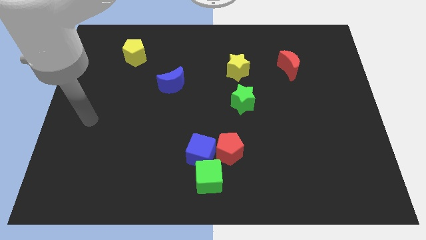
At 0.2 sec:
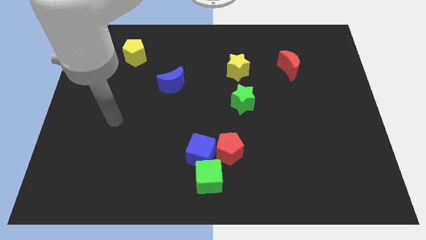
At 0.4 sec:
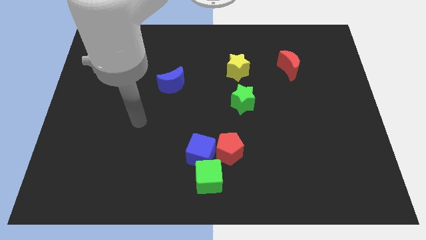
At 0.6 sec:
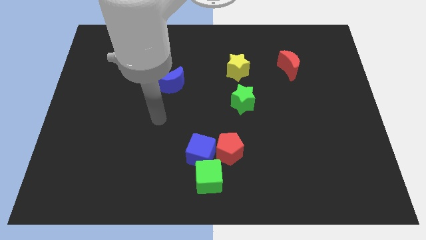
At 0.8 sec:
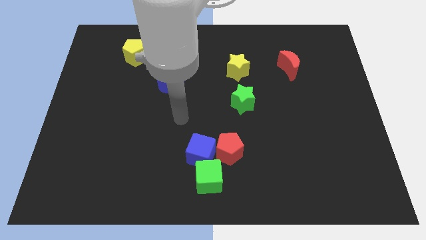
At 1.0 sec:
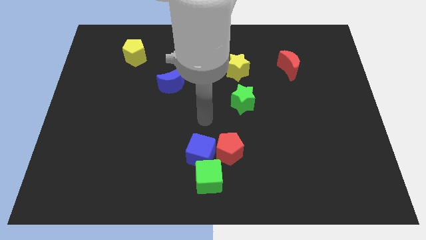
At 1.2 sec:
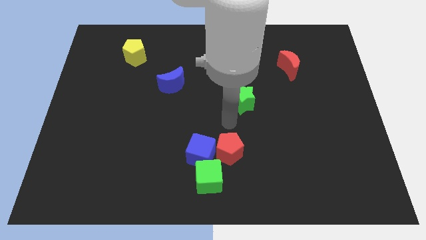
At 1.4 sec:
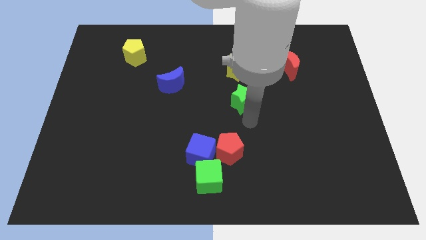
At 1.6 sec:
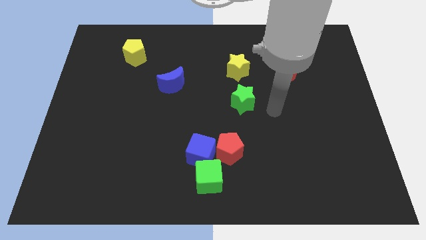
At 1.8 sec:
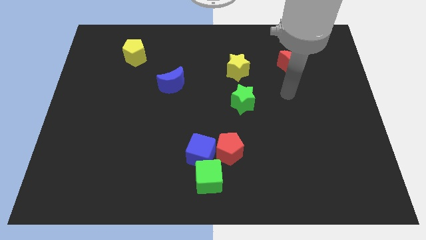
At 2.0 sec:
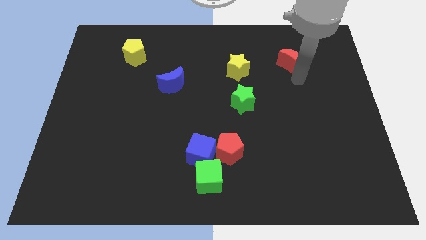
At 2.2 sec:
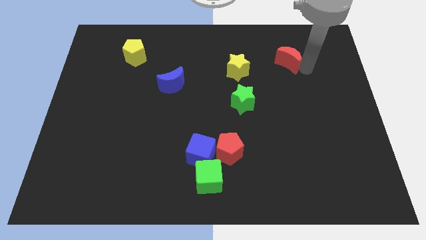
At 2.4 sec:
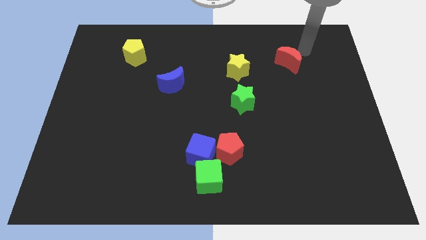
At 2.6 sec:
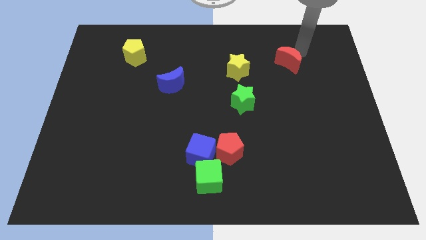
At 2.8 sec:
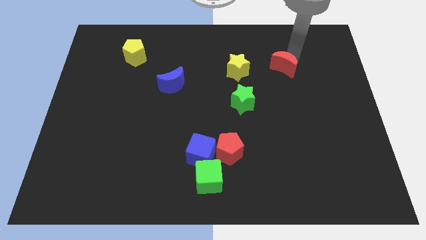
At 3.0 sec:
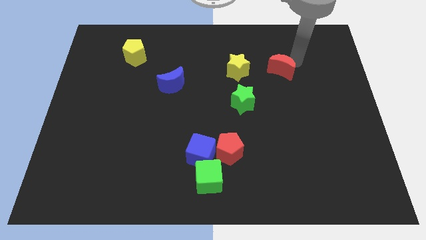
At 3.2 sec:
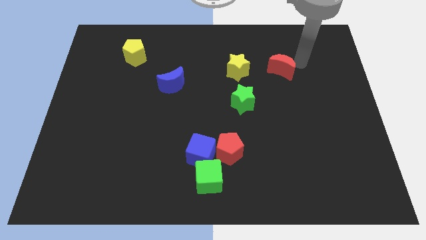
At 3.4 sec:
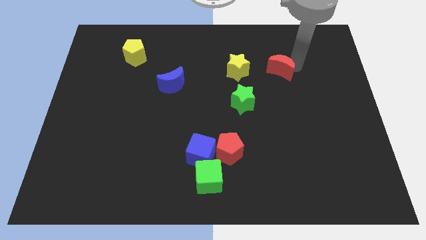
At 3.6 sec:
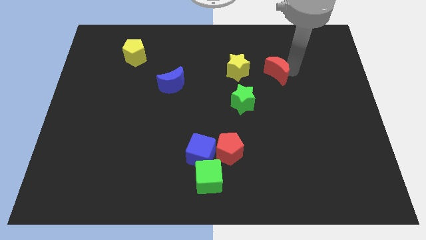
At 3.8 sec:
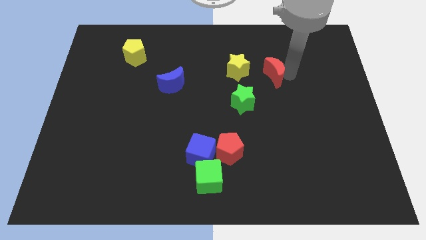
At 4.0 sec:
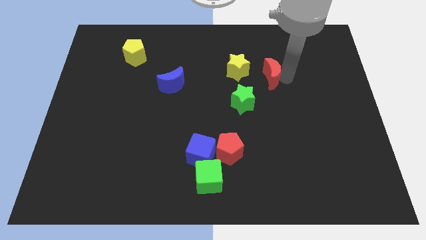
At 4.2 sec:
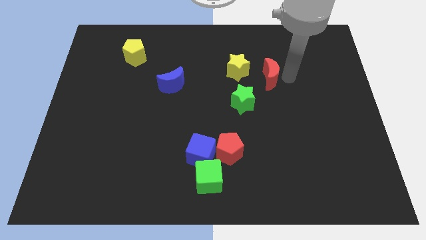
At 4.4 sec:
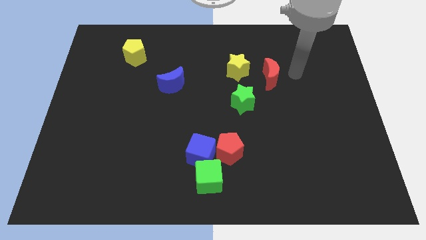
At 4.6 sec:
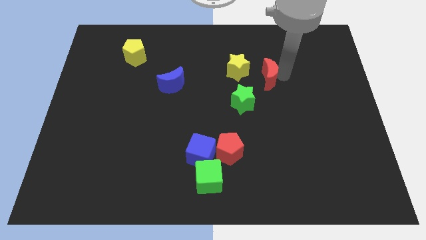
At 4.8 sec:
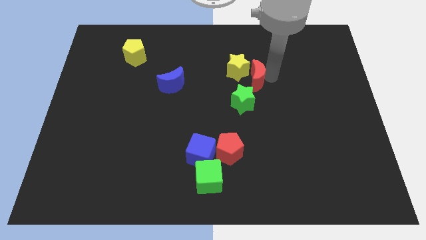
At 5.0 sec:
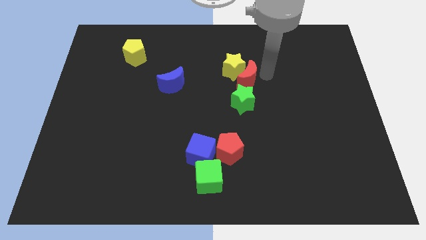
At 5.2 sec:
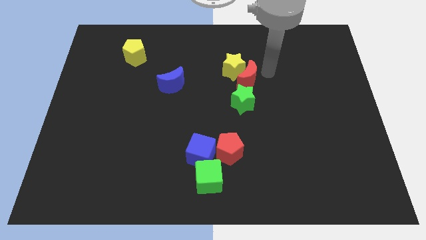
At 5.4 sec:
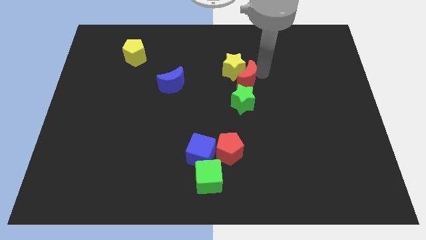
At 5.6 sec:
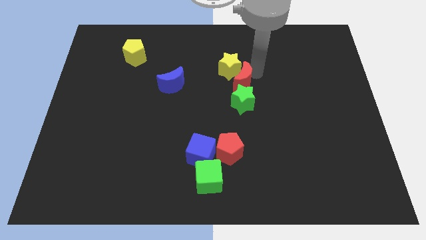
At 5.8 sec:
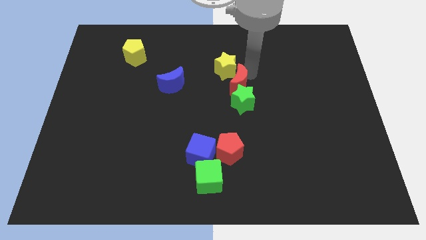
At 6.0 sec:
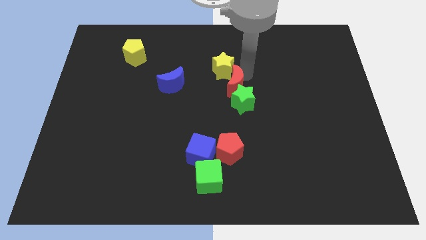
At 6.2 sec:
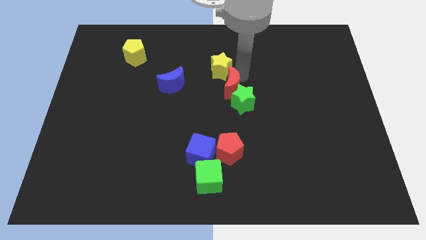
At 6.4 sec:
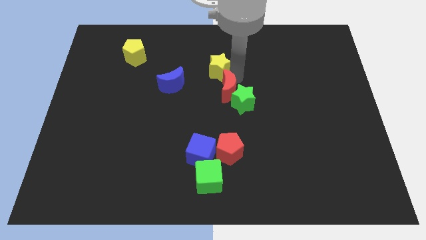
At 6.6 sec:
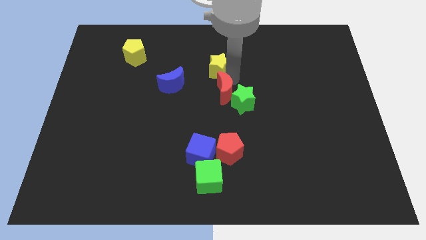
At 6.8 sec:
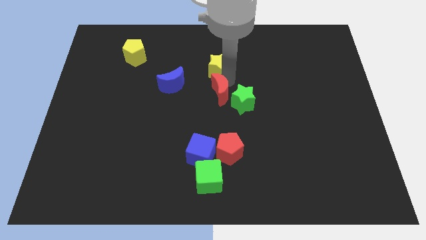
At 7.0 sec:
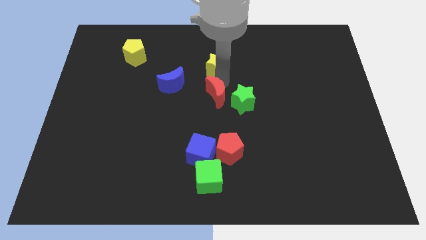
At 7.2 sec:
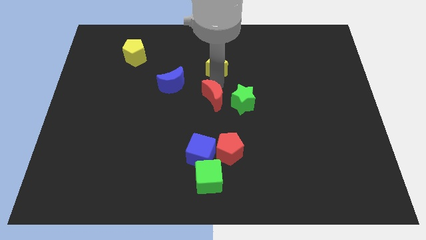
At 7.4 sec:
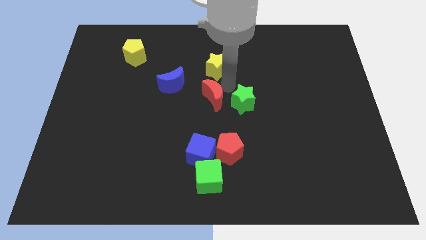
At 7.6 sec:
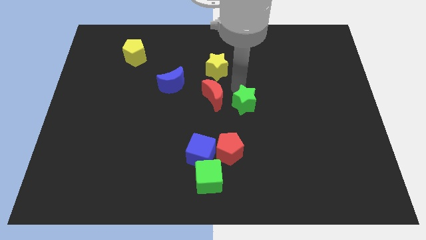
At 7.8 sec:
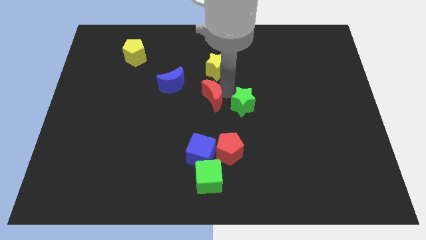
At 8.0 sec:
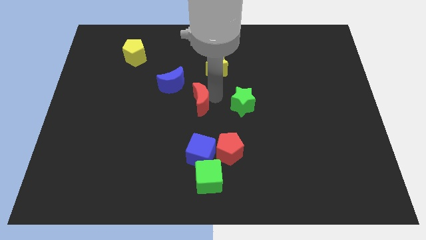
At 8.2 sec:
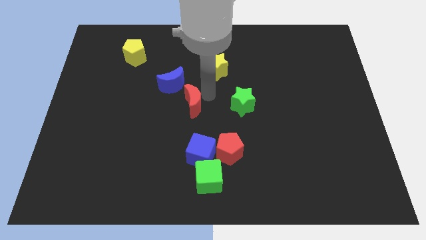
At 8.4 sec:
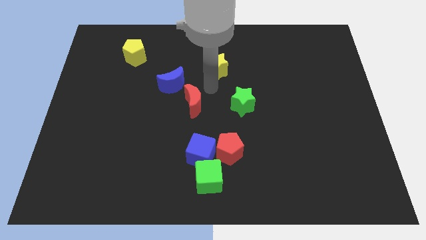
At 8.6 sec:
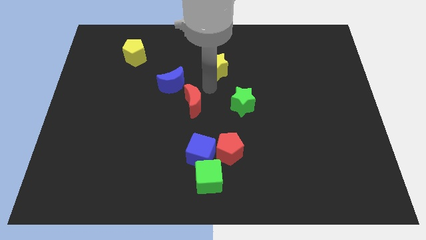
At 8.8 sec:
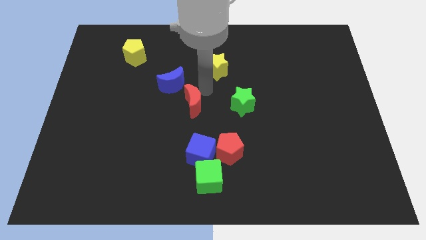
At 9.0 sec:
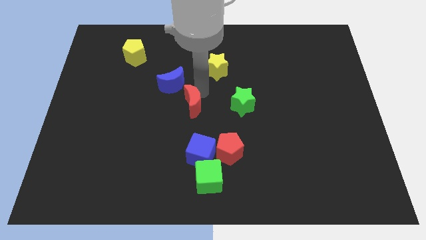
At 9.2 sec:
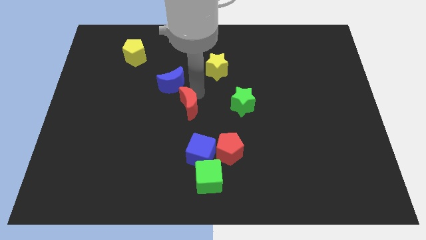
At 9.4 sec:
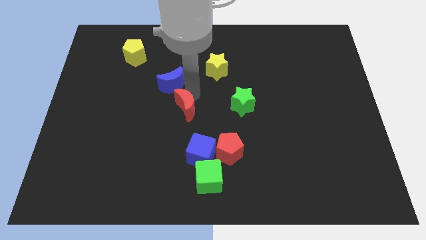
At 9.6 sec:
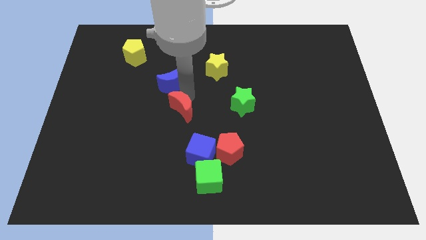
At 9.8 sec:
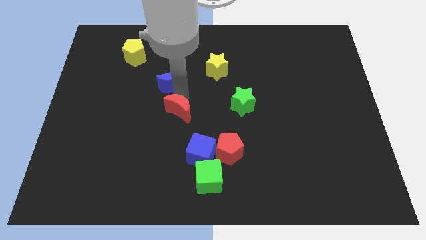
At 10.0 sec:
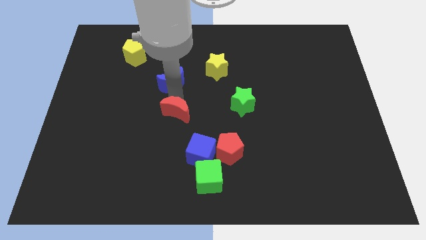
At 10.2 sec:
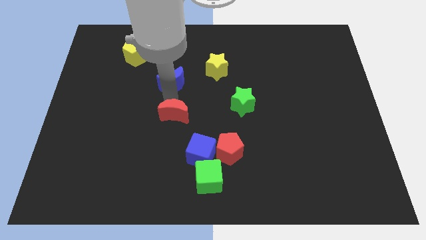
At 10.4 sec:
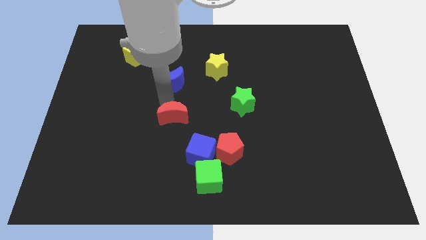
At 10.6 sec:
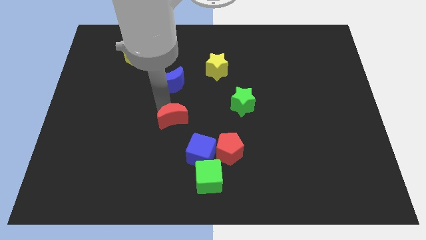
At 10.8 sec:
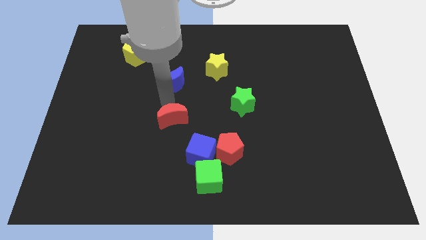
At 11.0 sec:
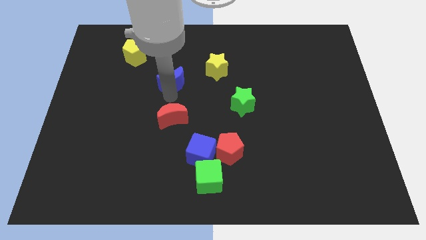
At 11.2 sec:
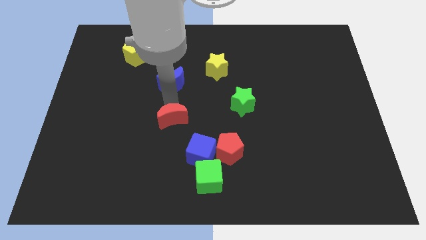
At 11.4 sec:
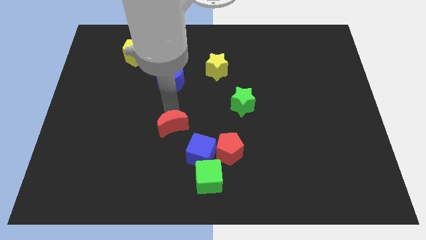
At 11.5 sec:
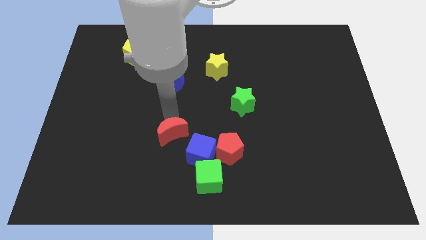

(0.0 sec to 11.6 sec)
push the red moon to the left side of the red pentagon
